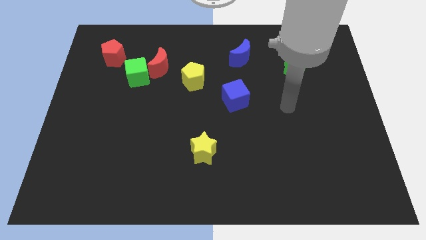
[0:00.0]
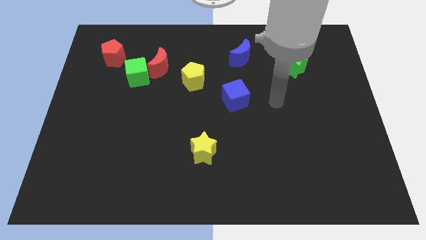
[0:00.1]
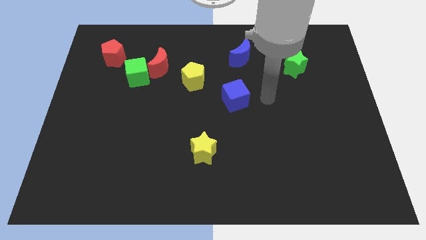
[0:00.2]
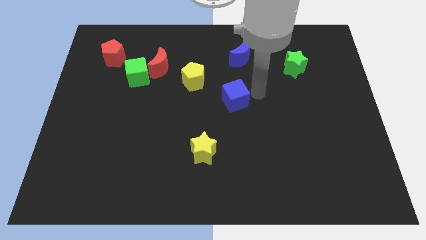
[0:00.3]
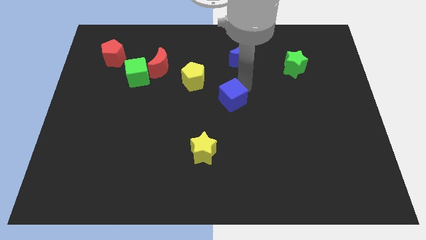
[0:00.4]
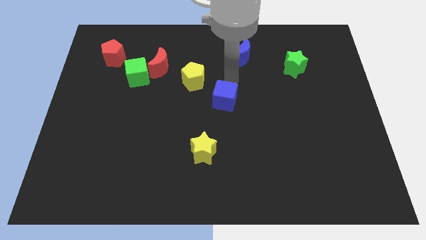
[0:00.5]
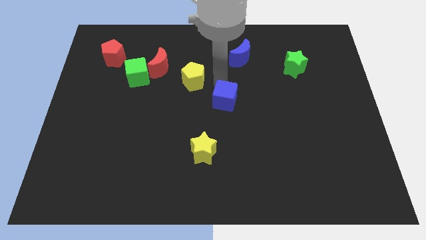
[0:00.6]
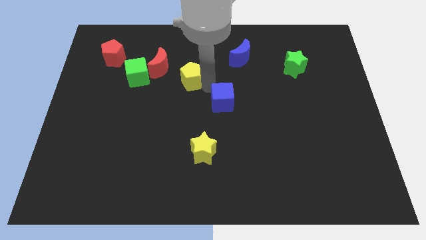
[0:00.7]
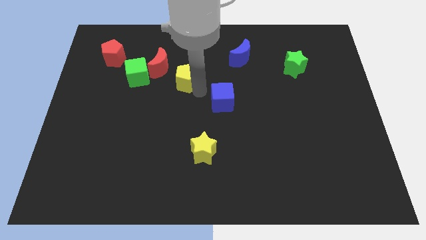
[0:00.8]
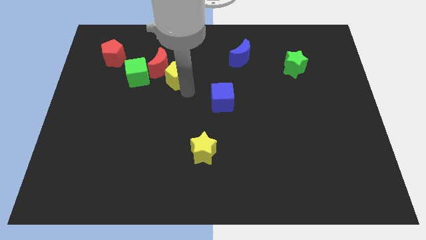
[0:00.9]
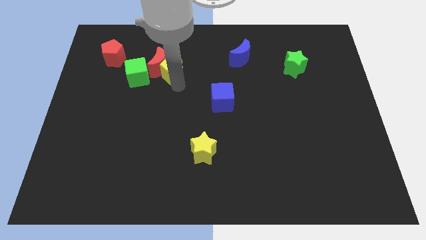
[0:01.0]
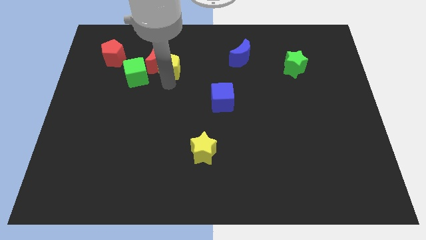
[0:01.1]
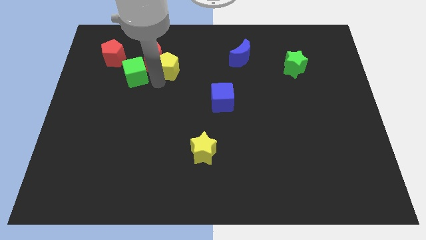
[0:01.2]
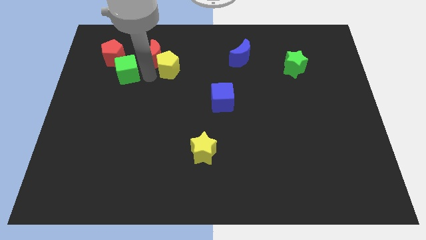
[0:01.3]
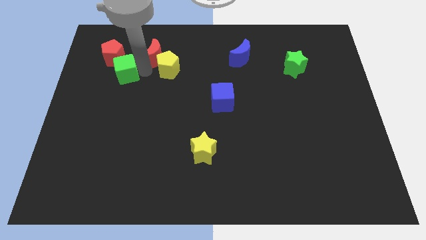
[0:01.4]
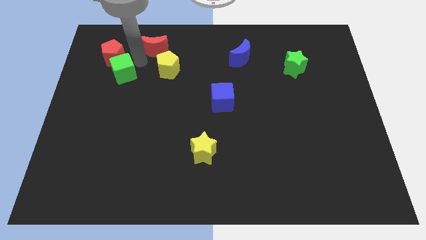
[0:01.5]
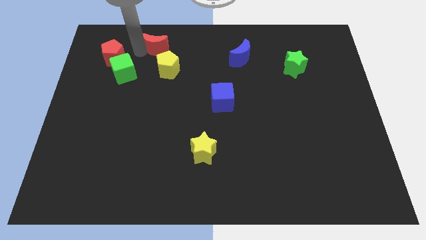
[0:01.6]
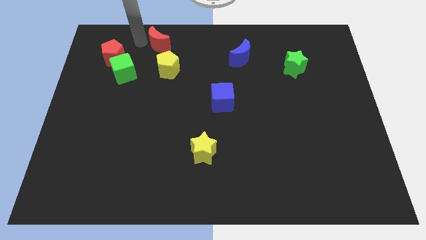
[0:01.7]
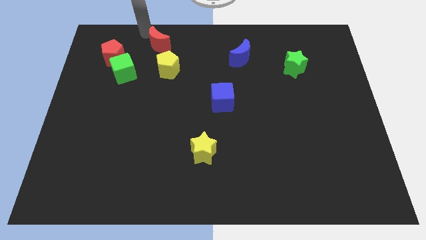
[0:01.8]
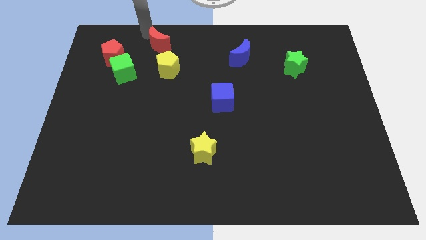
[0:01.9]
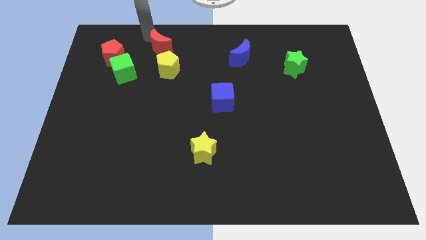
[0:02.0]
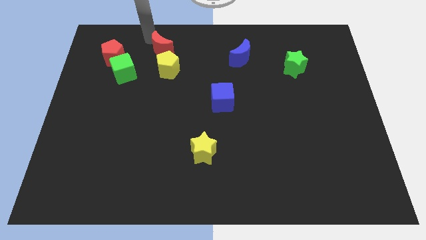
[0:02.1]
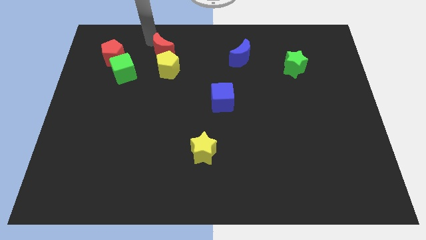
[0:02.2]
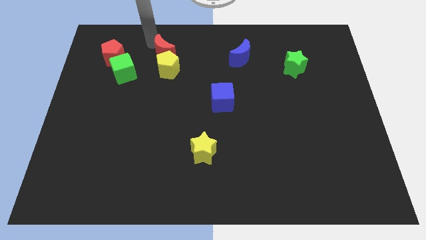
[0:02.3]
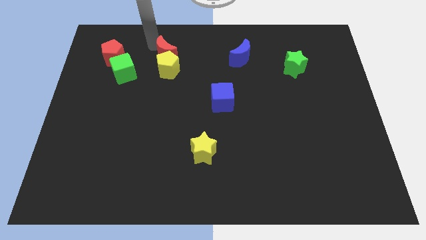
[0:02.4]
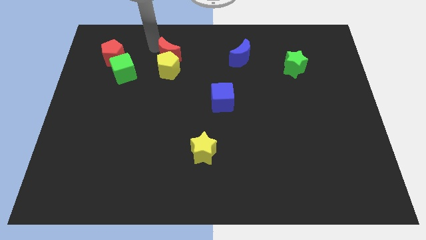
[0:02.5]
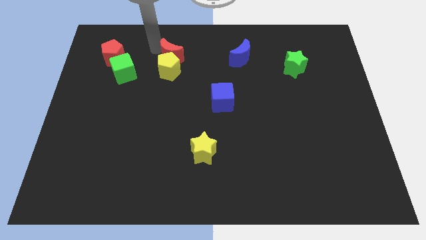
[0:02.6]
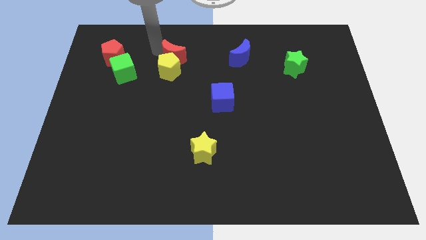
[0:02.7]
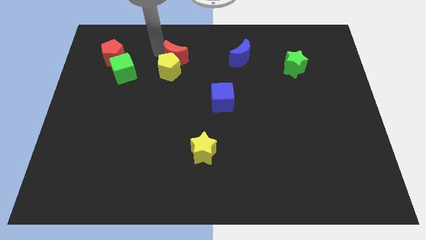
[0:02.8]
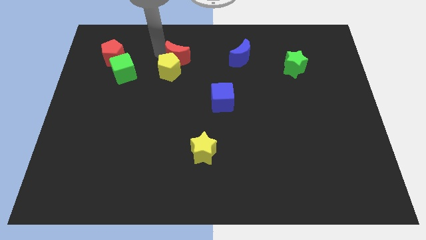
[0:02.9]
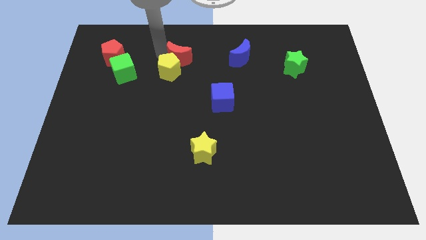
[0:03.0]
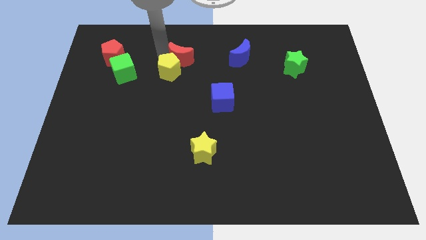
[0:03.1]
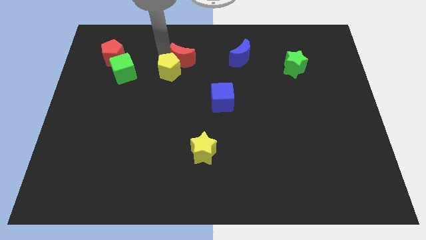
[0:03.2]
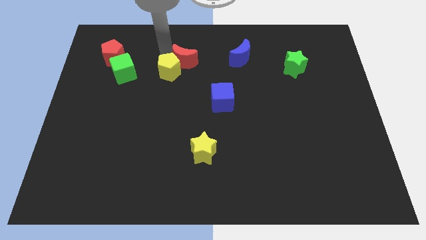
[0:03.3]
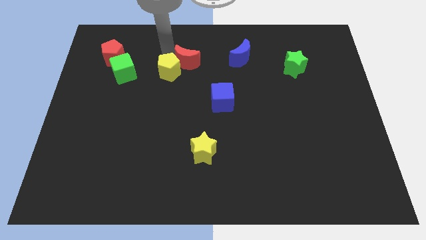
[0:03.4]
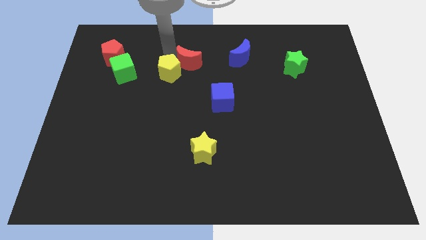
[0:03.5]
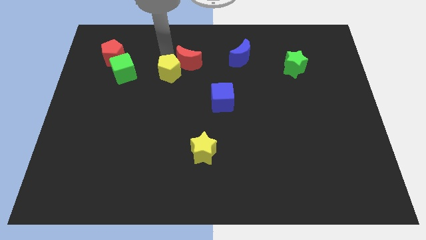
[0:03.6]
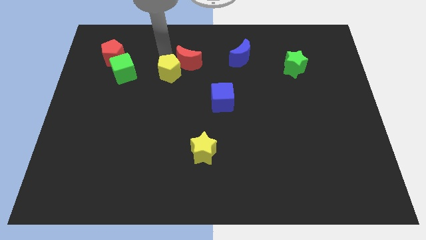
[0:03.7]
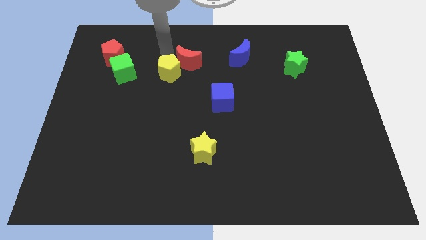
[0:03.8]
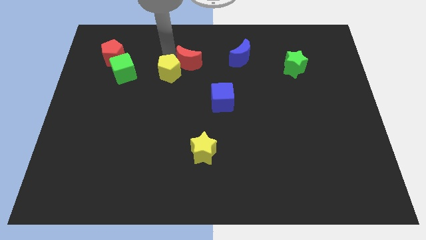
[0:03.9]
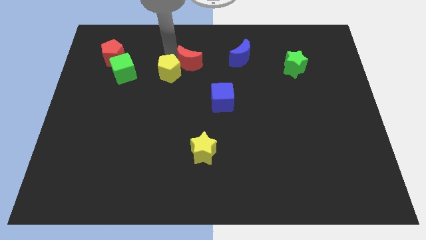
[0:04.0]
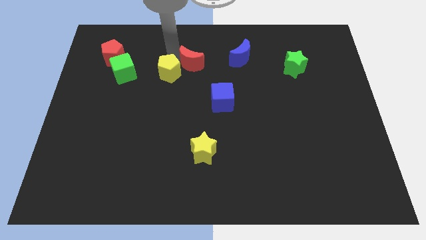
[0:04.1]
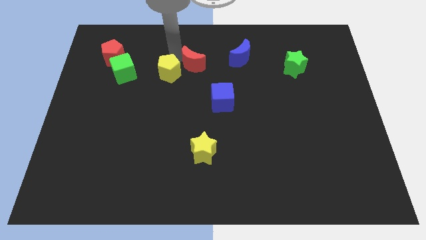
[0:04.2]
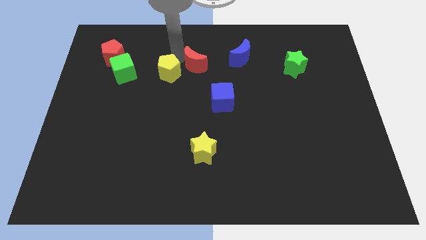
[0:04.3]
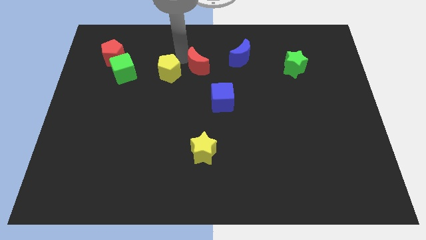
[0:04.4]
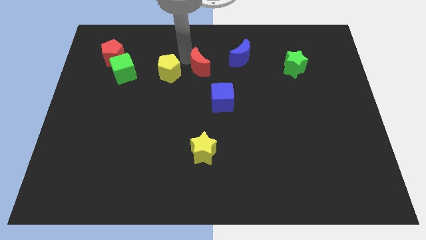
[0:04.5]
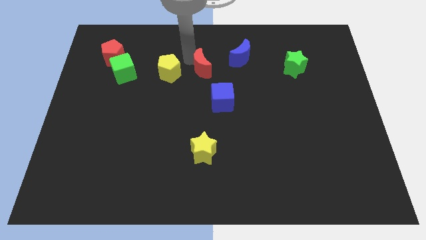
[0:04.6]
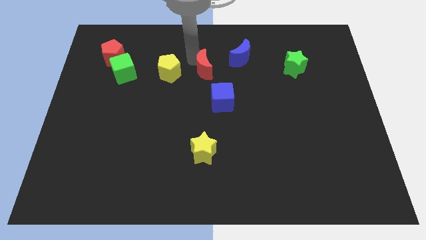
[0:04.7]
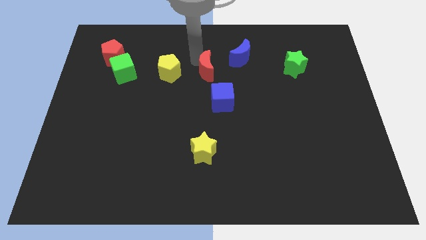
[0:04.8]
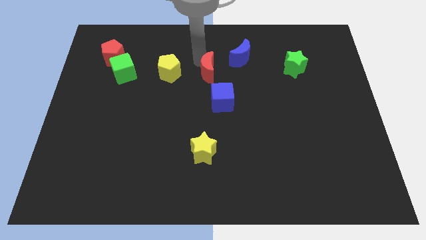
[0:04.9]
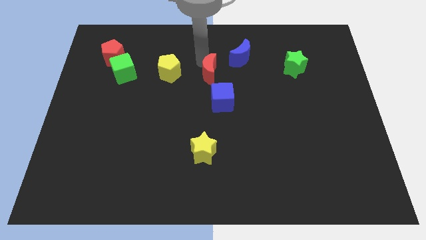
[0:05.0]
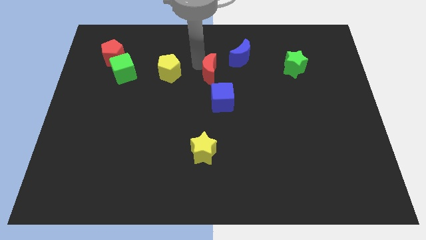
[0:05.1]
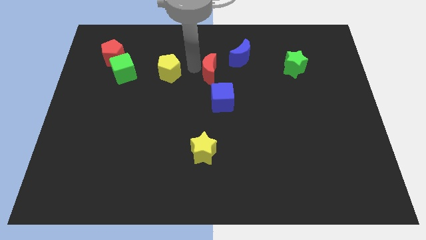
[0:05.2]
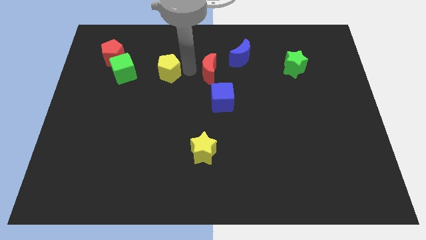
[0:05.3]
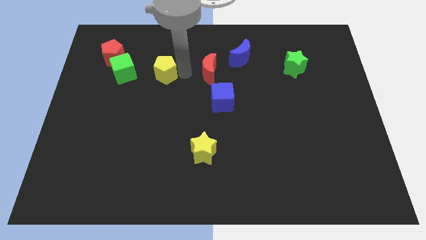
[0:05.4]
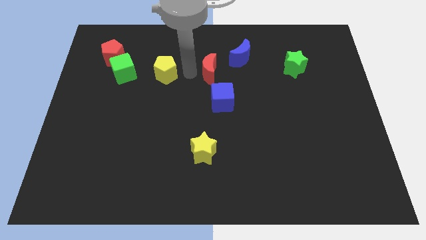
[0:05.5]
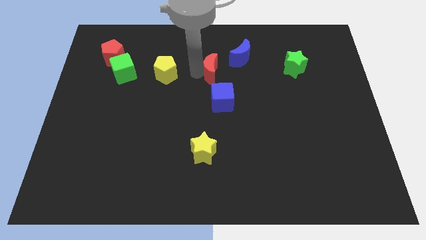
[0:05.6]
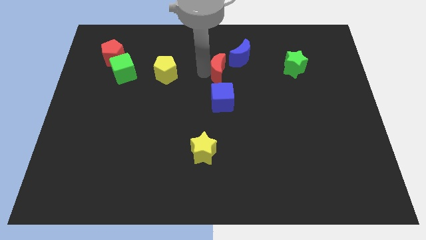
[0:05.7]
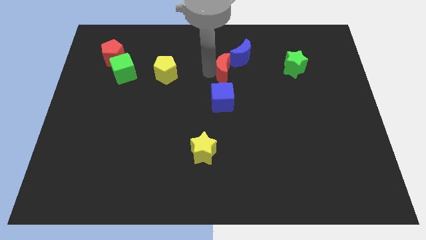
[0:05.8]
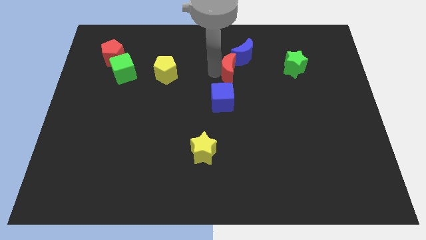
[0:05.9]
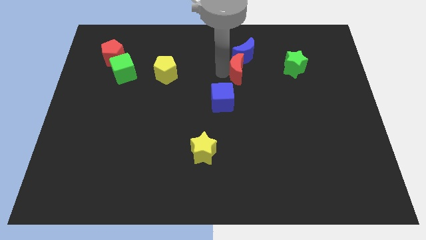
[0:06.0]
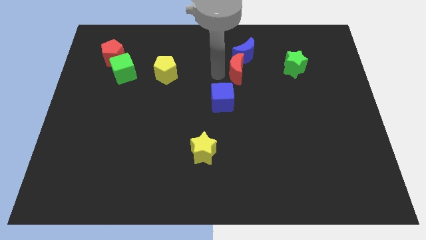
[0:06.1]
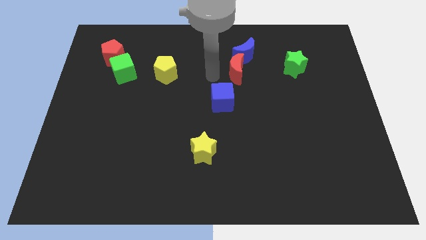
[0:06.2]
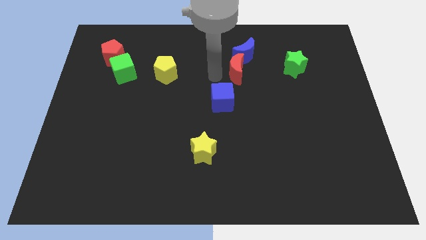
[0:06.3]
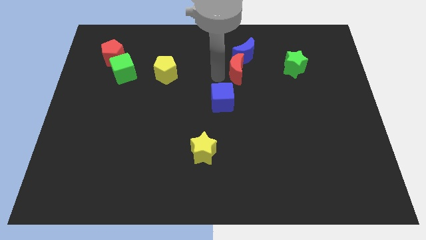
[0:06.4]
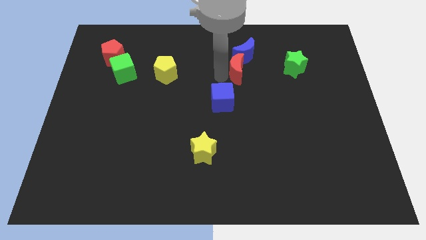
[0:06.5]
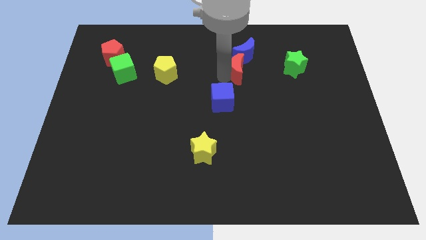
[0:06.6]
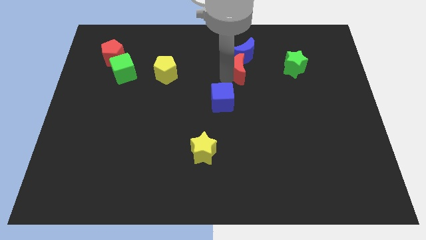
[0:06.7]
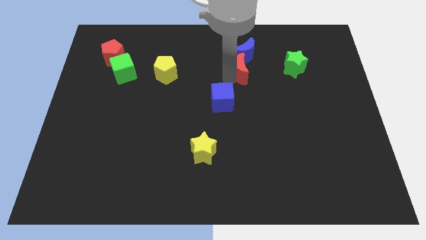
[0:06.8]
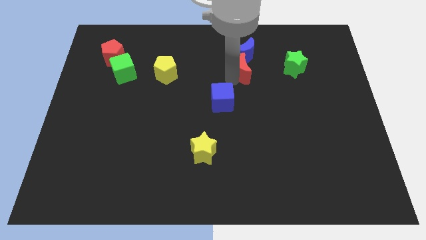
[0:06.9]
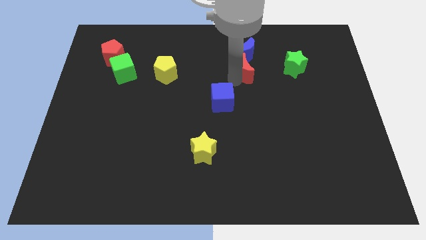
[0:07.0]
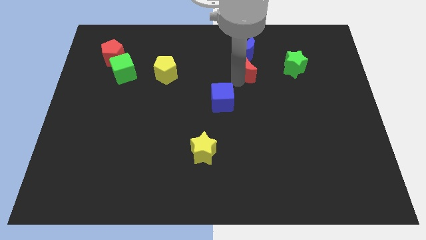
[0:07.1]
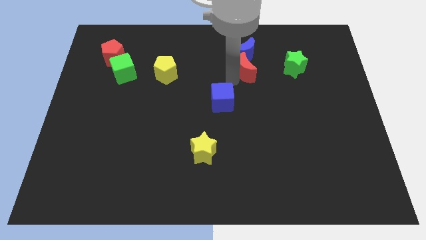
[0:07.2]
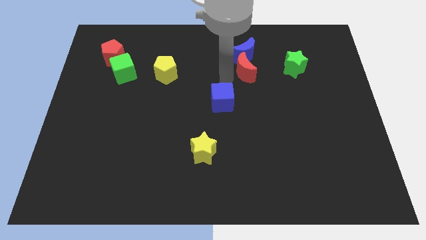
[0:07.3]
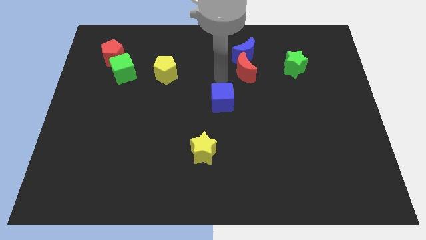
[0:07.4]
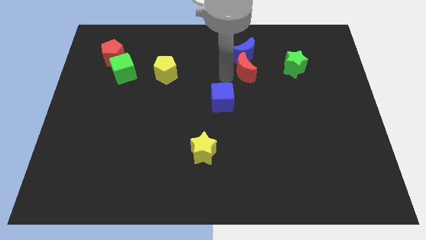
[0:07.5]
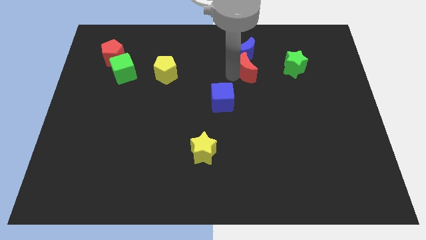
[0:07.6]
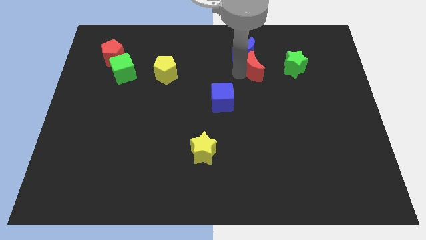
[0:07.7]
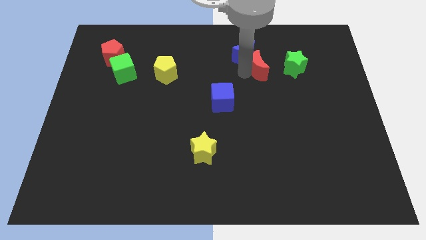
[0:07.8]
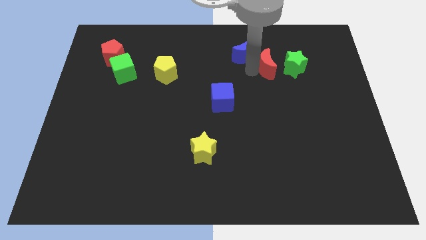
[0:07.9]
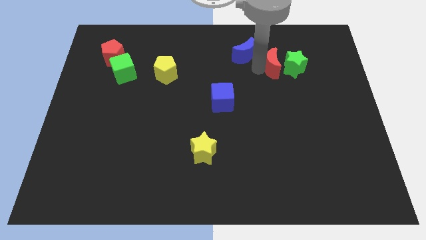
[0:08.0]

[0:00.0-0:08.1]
put the red moon to the green star
